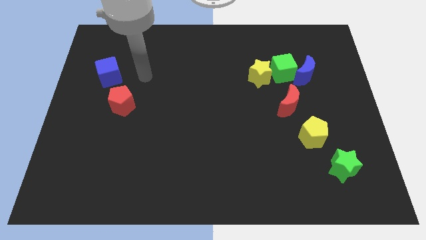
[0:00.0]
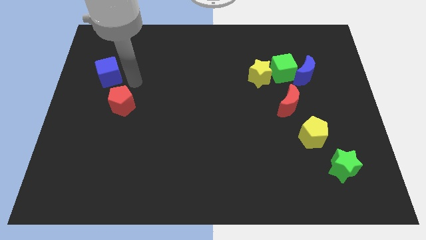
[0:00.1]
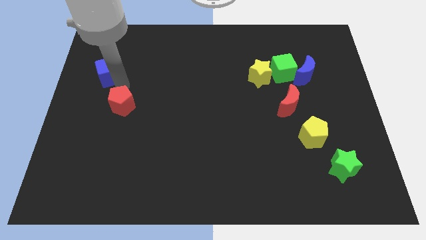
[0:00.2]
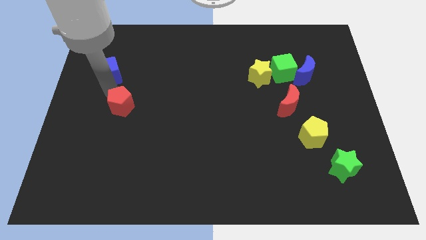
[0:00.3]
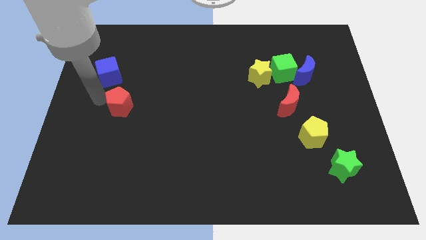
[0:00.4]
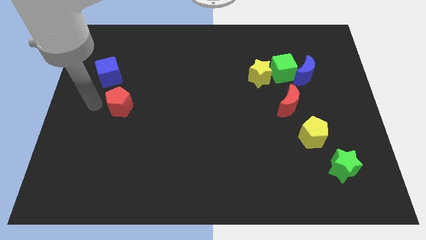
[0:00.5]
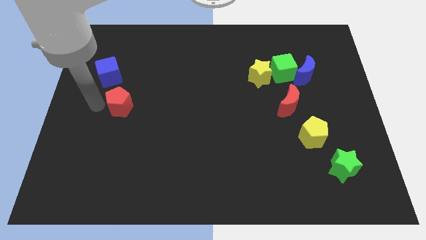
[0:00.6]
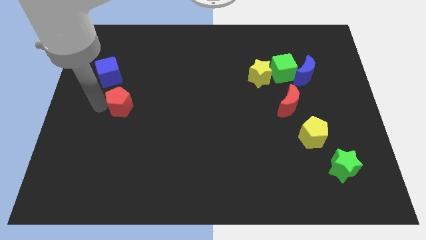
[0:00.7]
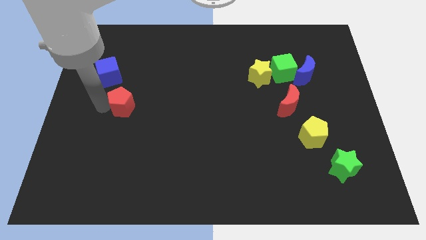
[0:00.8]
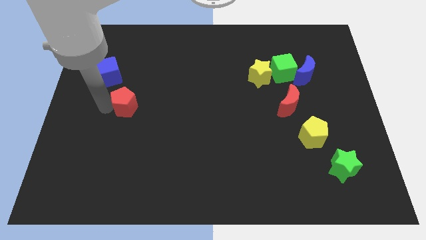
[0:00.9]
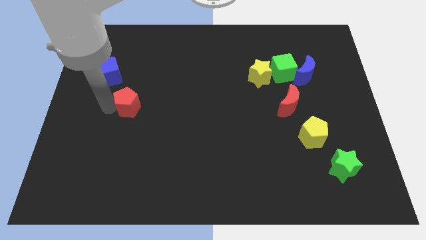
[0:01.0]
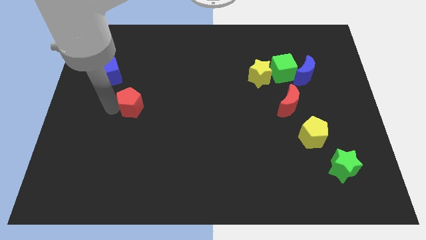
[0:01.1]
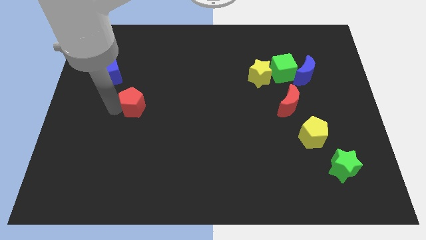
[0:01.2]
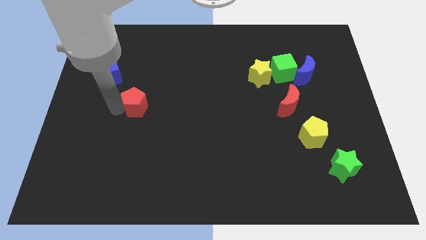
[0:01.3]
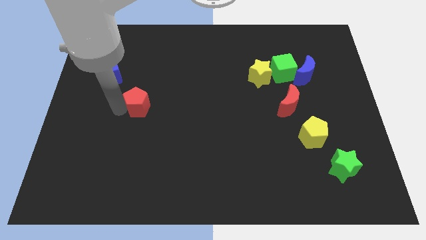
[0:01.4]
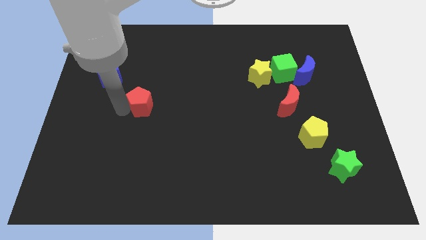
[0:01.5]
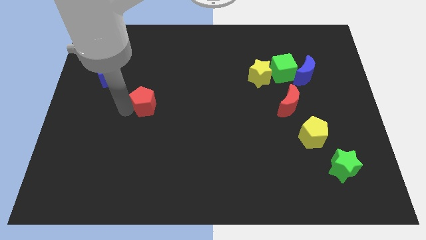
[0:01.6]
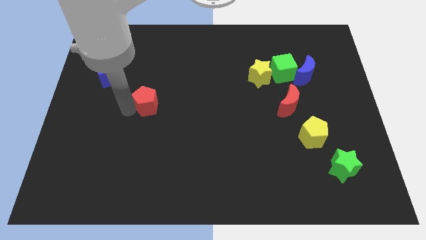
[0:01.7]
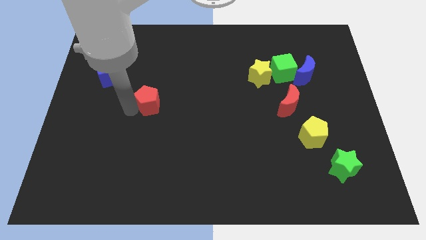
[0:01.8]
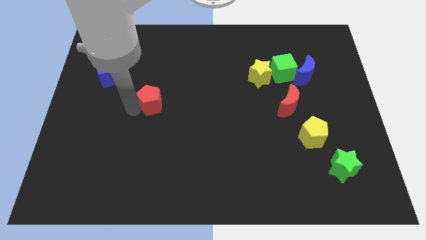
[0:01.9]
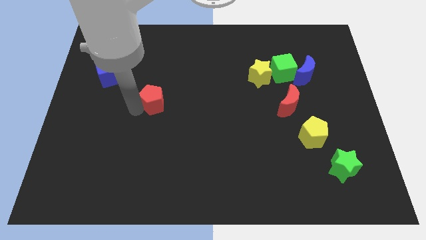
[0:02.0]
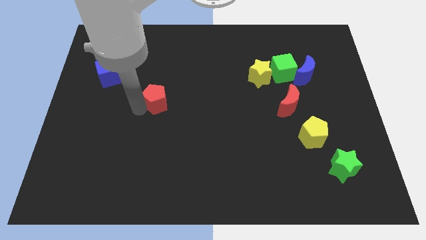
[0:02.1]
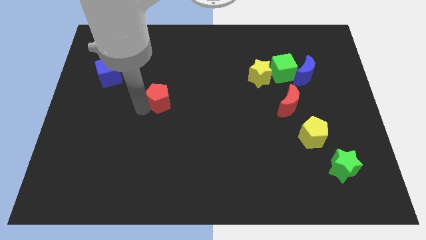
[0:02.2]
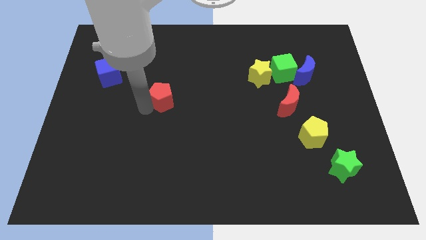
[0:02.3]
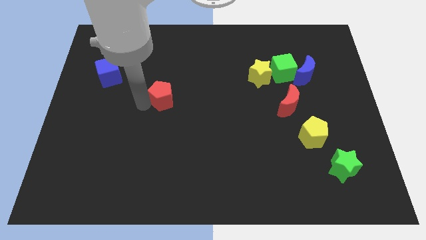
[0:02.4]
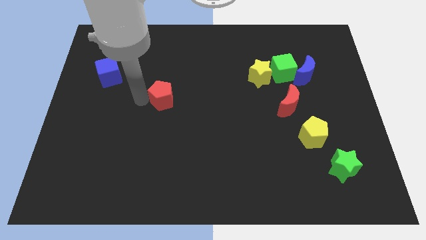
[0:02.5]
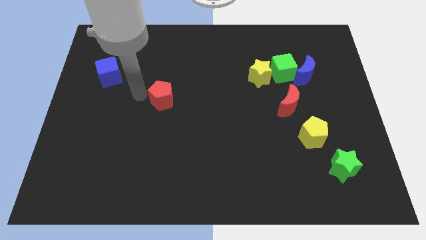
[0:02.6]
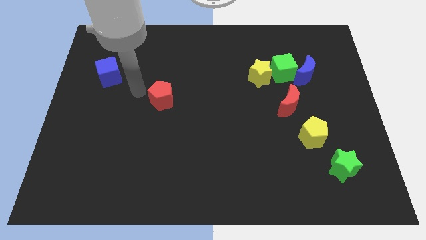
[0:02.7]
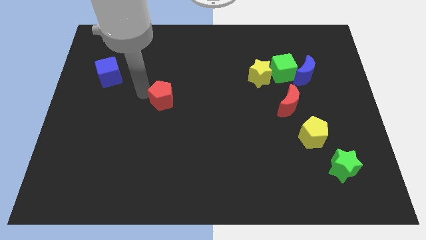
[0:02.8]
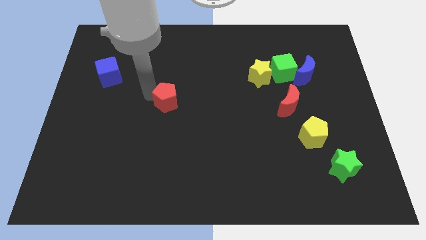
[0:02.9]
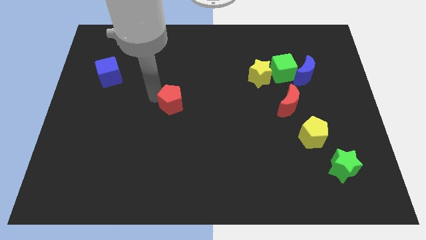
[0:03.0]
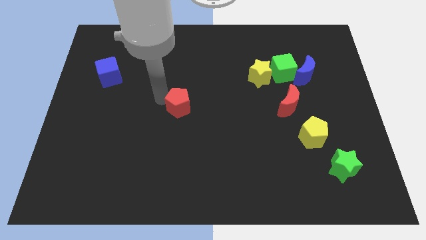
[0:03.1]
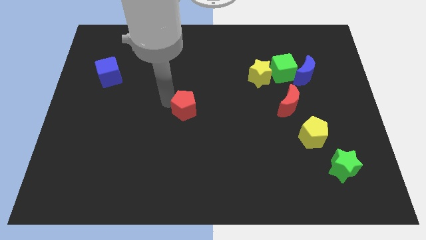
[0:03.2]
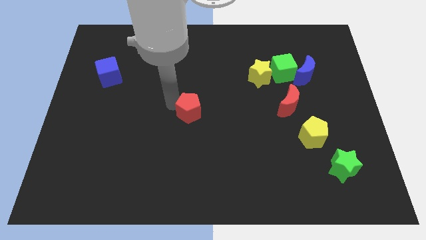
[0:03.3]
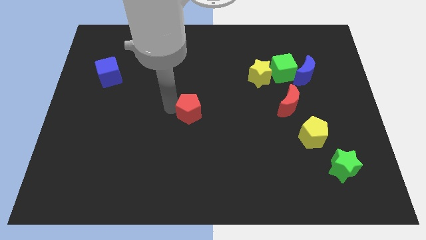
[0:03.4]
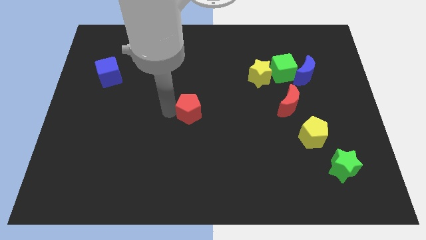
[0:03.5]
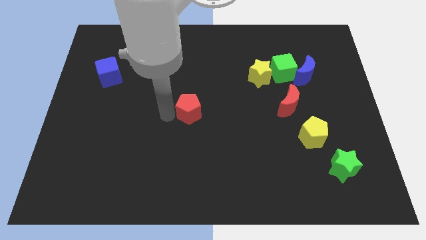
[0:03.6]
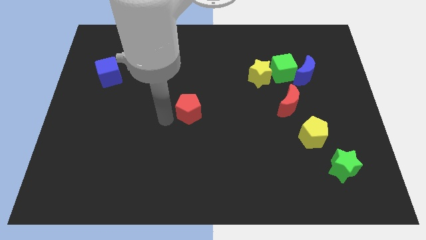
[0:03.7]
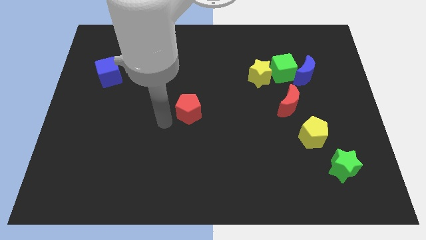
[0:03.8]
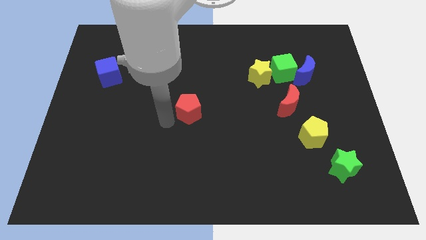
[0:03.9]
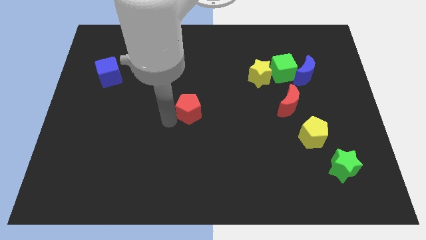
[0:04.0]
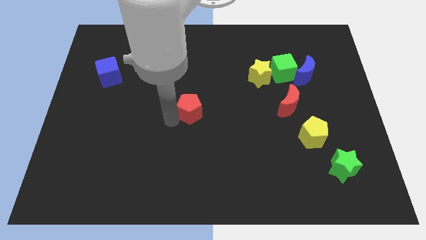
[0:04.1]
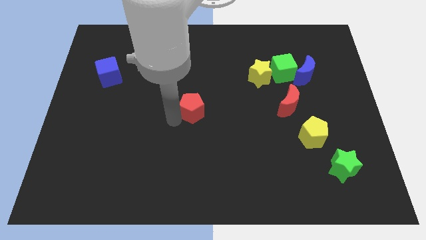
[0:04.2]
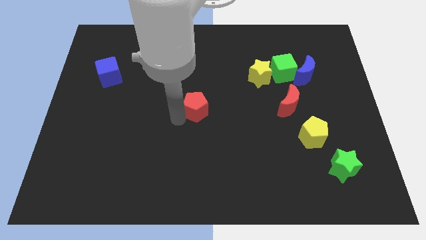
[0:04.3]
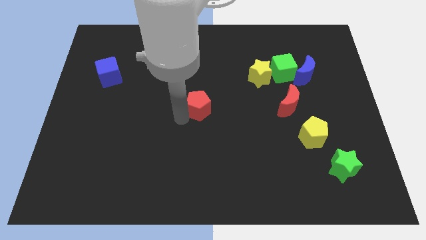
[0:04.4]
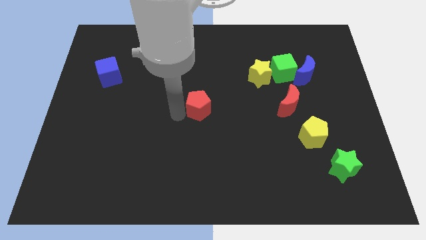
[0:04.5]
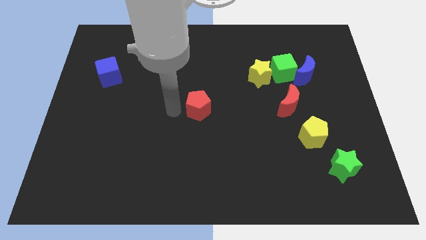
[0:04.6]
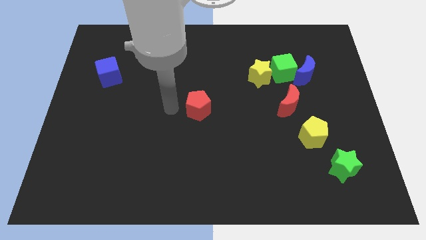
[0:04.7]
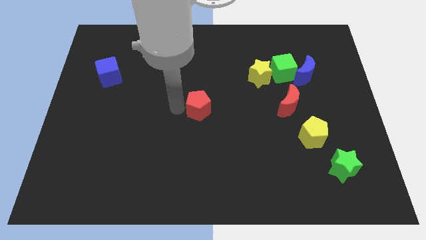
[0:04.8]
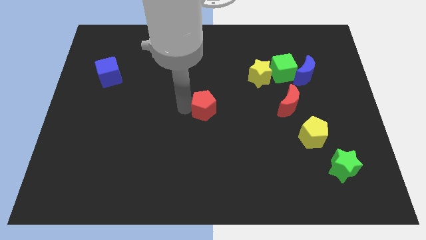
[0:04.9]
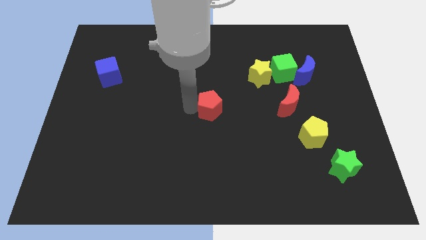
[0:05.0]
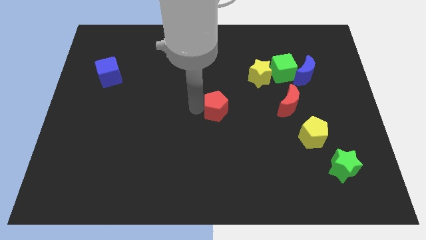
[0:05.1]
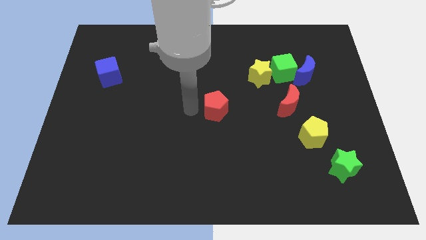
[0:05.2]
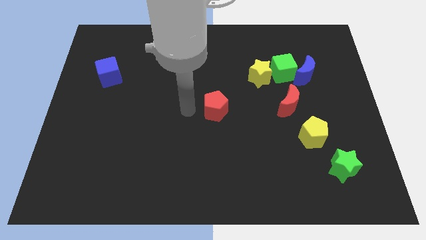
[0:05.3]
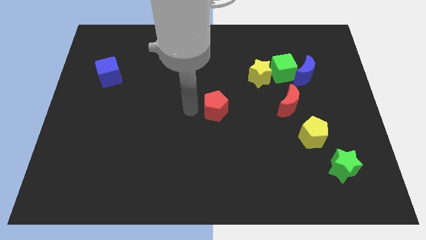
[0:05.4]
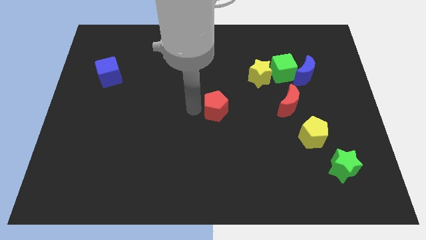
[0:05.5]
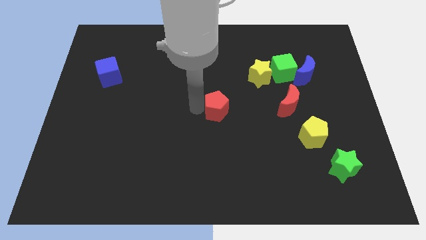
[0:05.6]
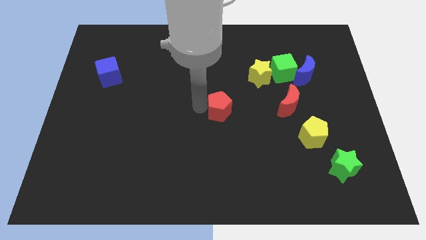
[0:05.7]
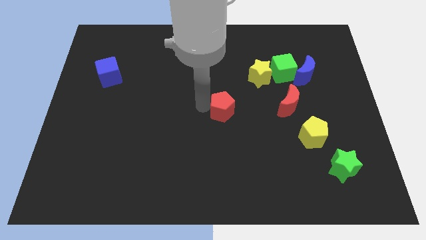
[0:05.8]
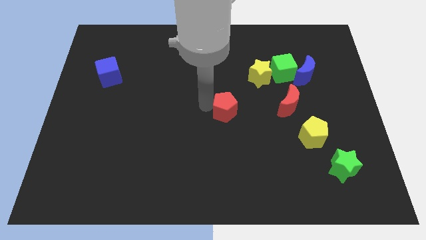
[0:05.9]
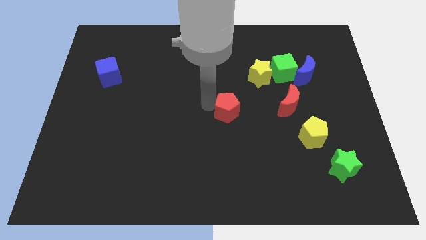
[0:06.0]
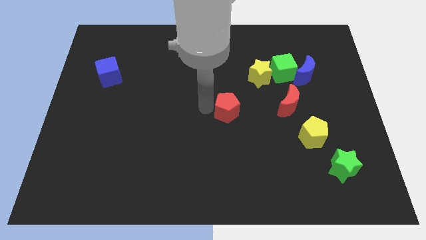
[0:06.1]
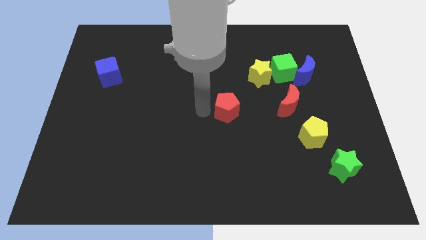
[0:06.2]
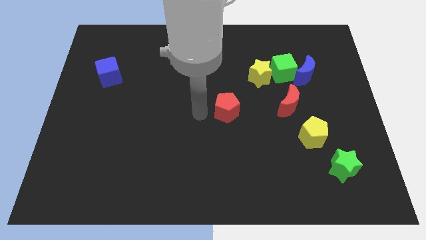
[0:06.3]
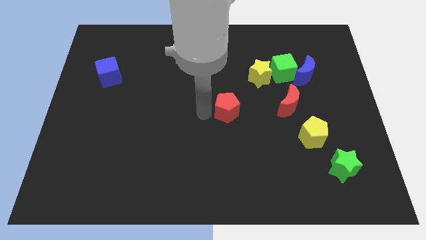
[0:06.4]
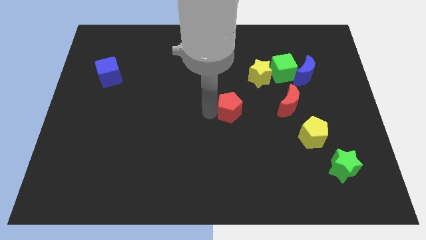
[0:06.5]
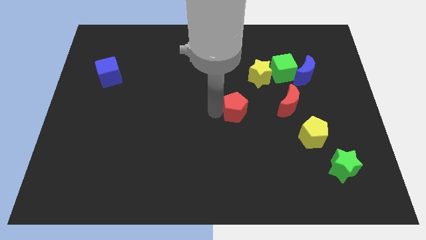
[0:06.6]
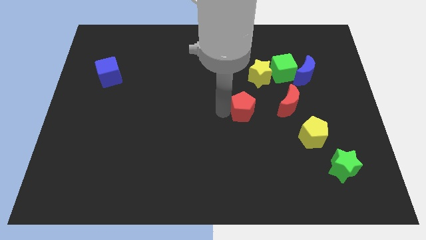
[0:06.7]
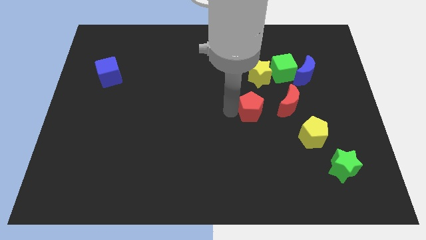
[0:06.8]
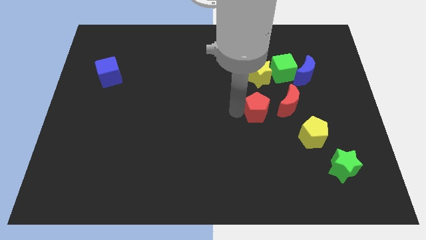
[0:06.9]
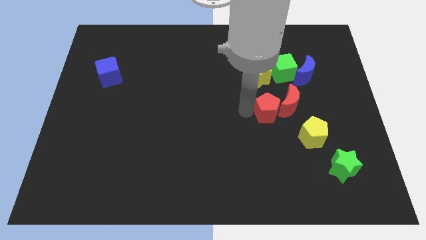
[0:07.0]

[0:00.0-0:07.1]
push the red pentagon to the red moon
